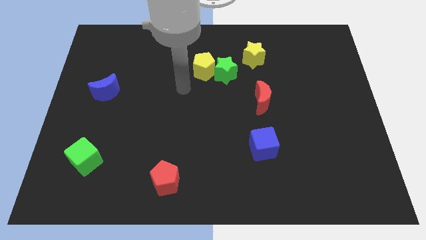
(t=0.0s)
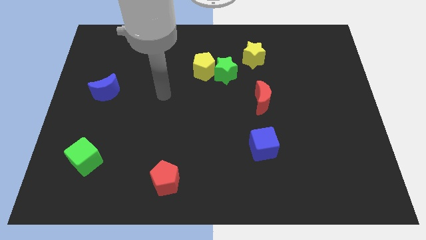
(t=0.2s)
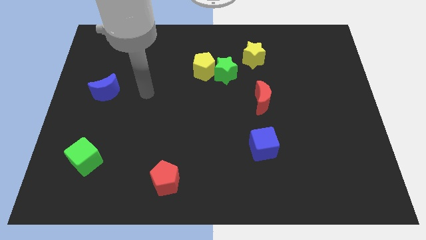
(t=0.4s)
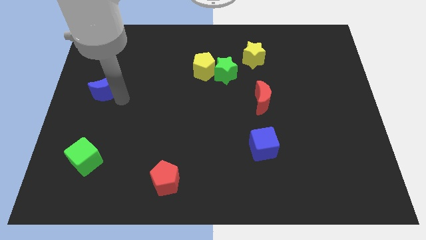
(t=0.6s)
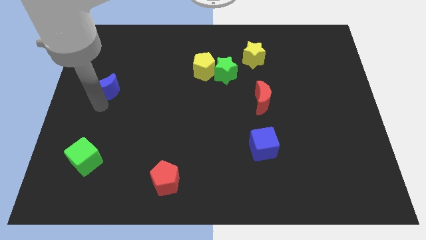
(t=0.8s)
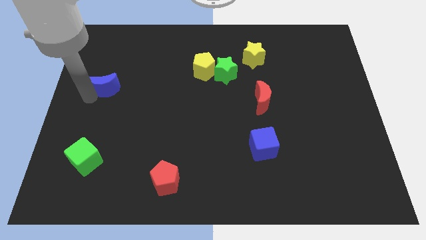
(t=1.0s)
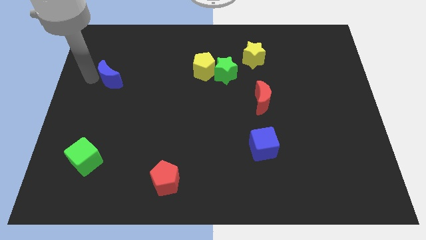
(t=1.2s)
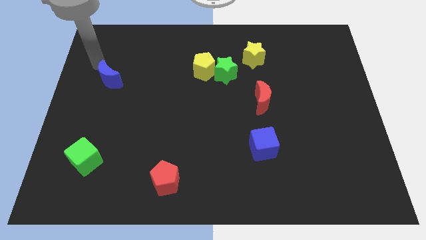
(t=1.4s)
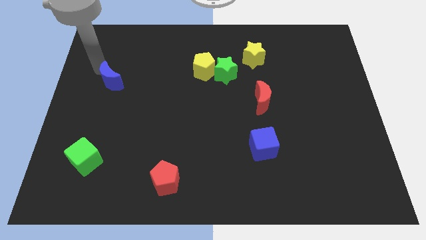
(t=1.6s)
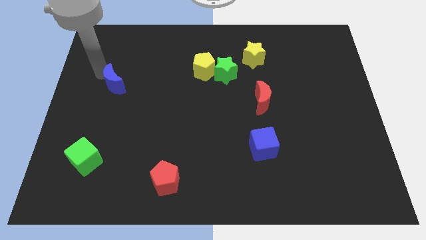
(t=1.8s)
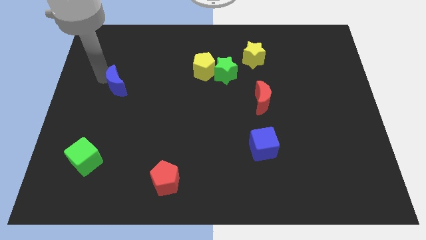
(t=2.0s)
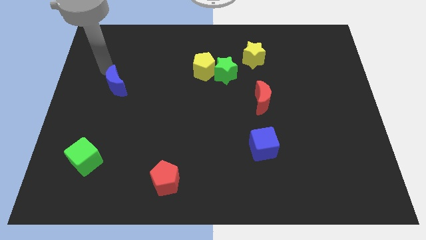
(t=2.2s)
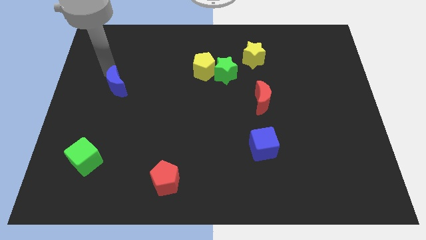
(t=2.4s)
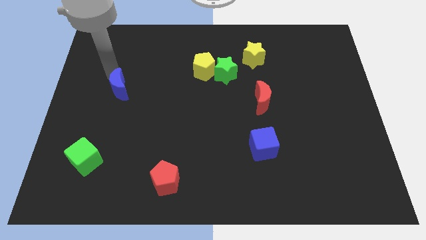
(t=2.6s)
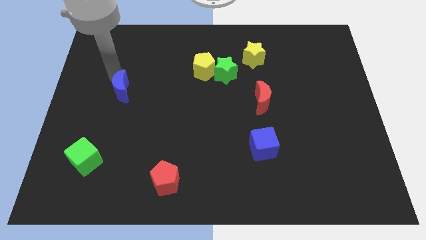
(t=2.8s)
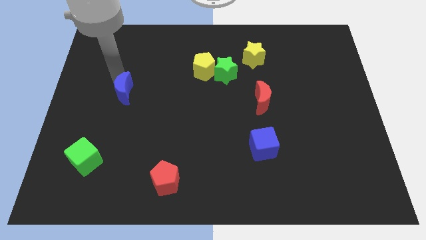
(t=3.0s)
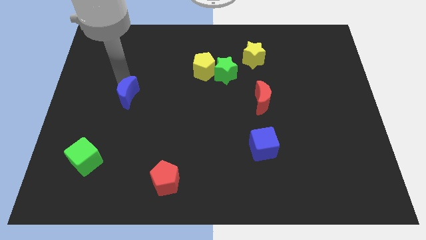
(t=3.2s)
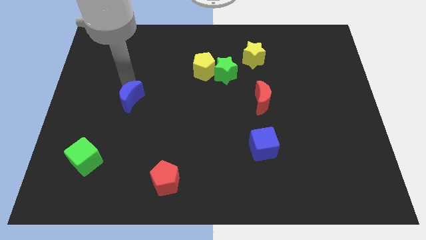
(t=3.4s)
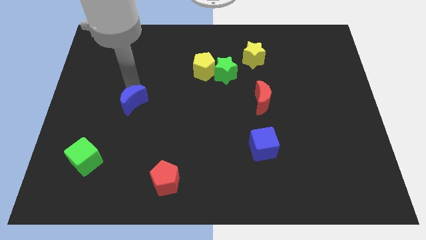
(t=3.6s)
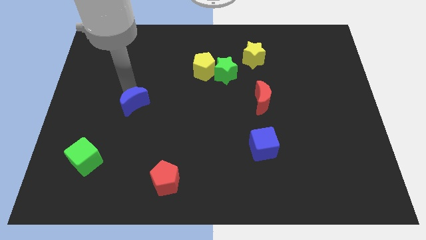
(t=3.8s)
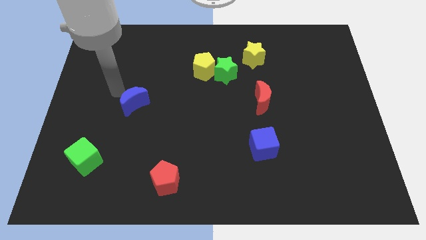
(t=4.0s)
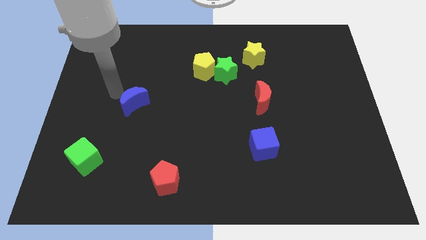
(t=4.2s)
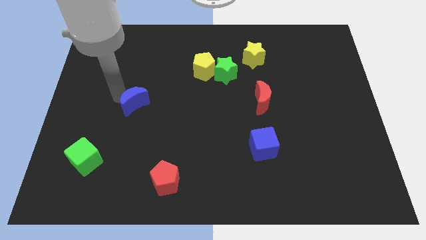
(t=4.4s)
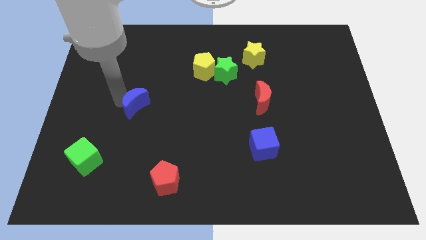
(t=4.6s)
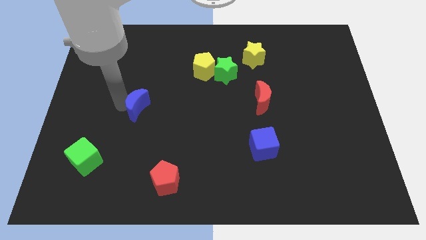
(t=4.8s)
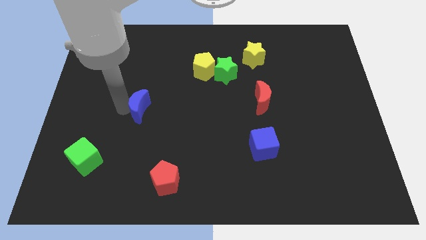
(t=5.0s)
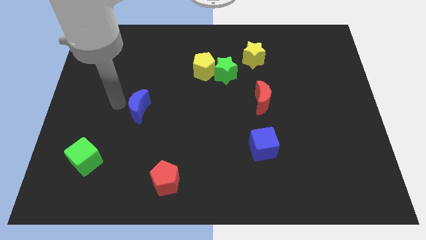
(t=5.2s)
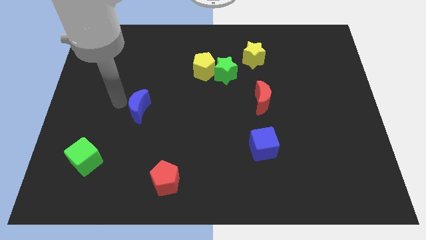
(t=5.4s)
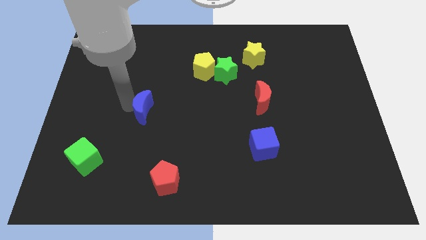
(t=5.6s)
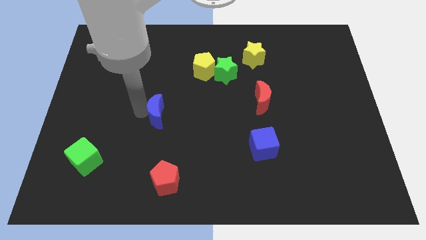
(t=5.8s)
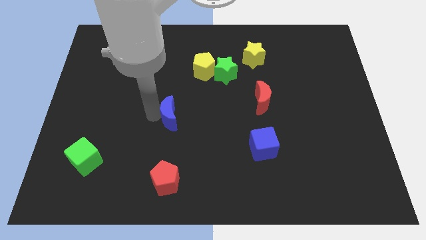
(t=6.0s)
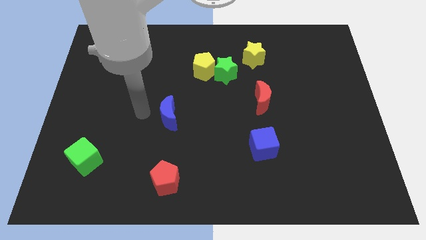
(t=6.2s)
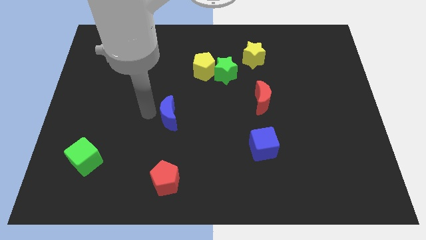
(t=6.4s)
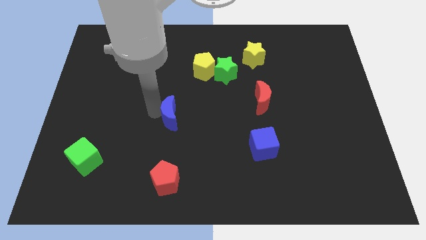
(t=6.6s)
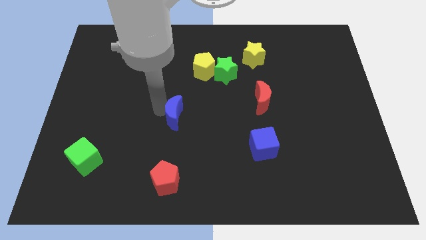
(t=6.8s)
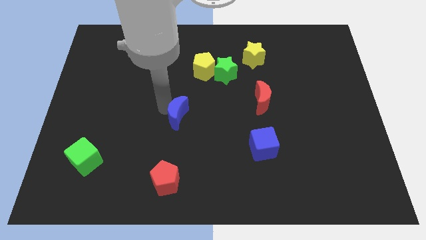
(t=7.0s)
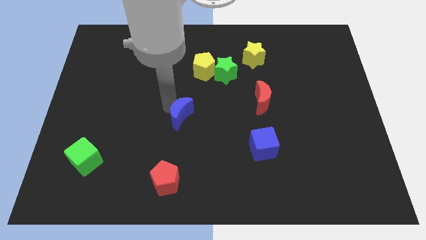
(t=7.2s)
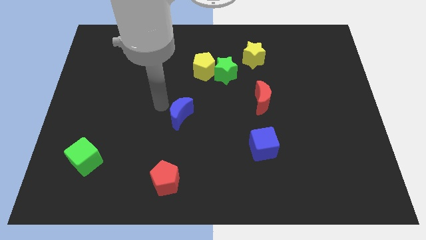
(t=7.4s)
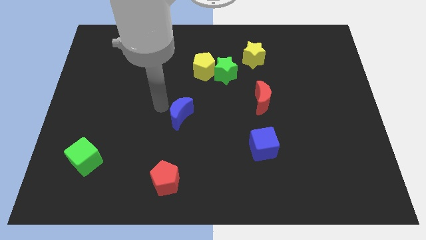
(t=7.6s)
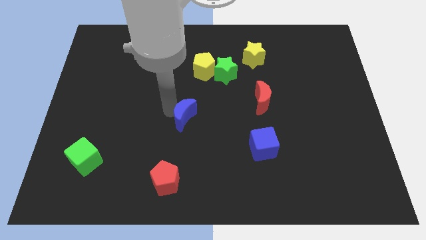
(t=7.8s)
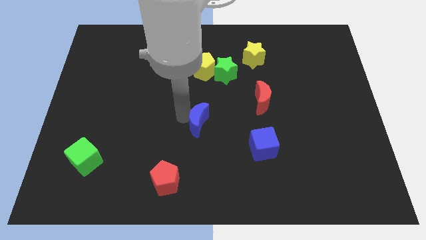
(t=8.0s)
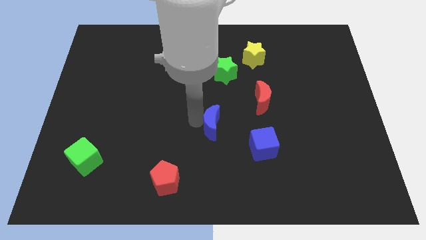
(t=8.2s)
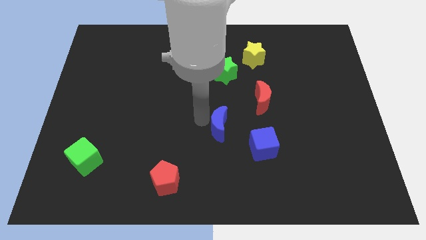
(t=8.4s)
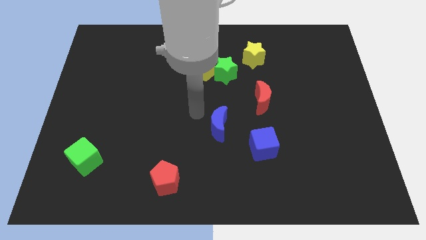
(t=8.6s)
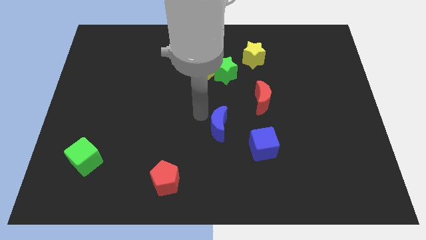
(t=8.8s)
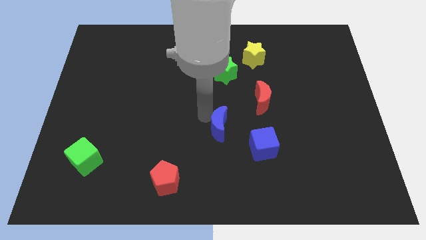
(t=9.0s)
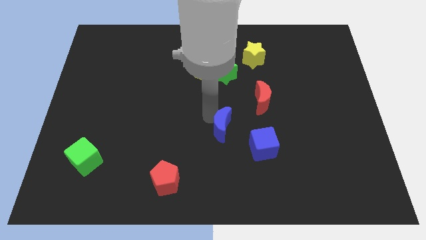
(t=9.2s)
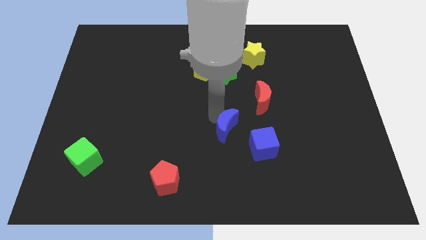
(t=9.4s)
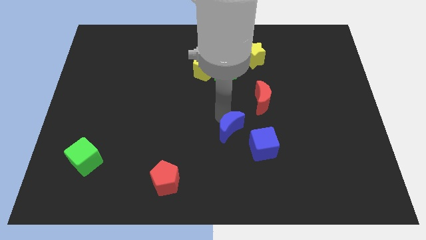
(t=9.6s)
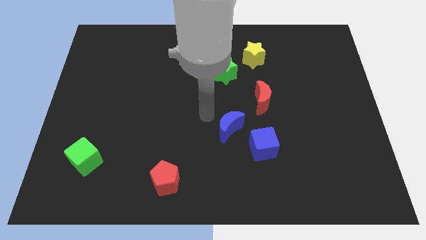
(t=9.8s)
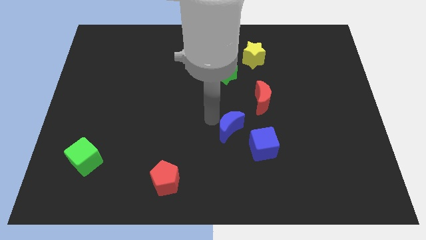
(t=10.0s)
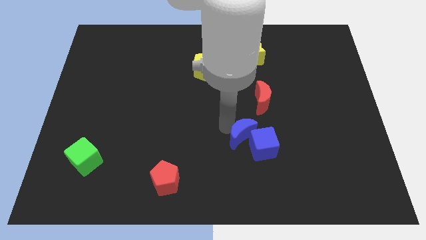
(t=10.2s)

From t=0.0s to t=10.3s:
move the blue moon to the blue cube

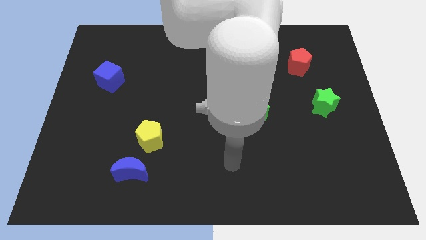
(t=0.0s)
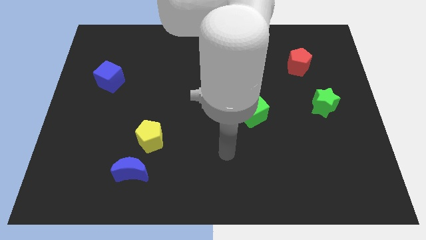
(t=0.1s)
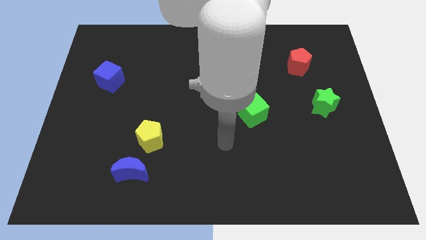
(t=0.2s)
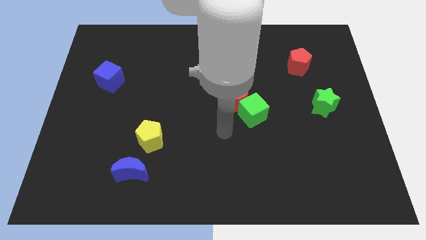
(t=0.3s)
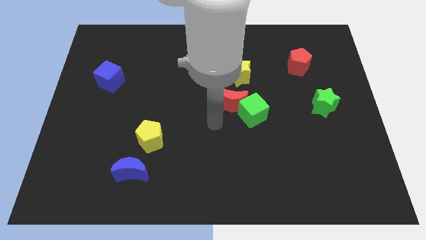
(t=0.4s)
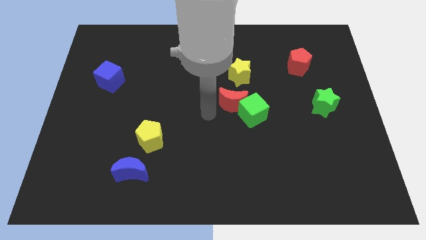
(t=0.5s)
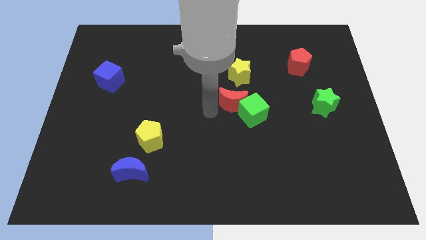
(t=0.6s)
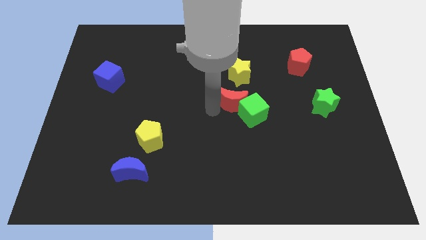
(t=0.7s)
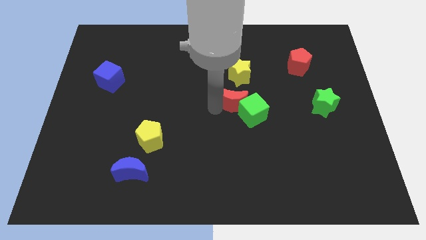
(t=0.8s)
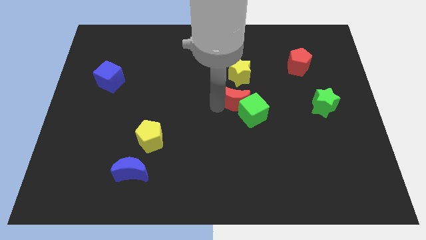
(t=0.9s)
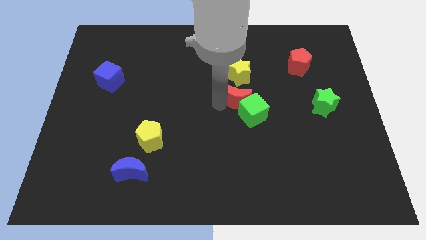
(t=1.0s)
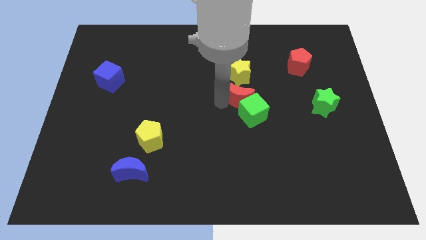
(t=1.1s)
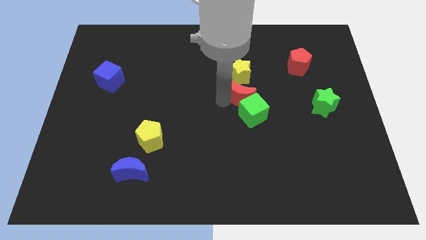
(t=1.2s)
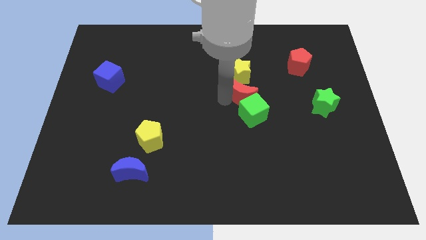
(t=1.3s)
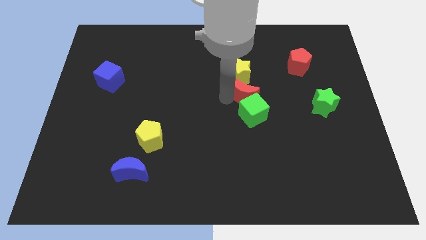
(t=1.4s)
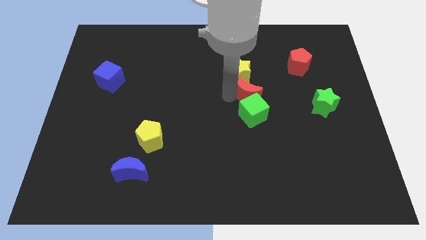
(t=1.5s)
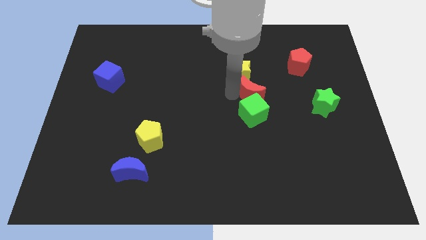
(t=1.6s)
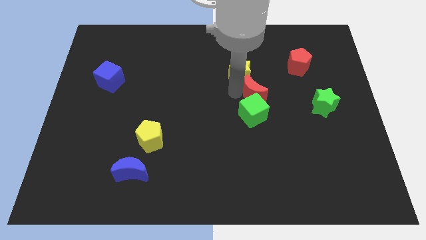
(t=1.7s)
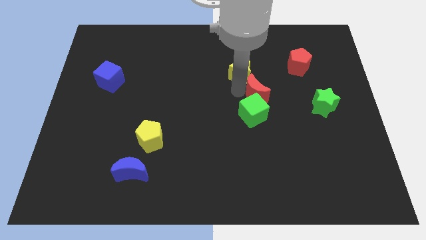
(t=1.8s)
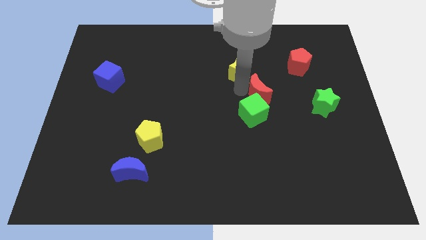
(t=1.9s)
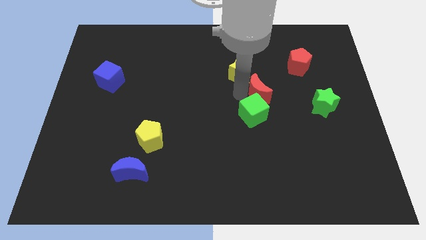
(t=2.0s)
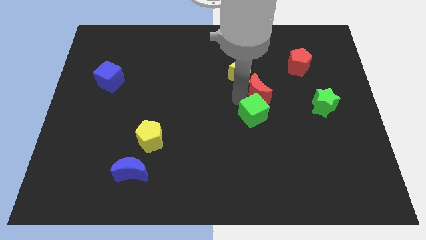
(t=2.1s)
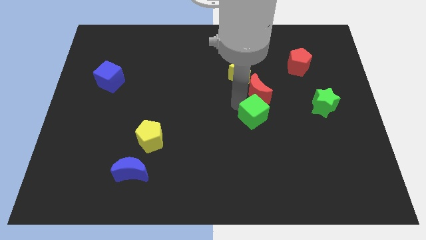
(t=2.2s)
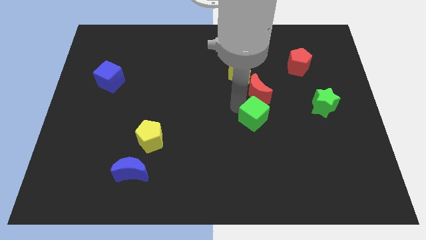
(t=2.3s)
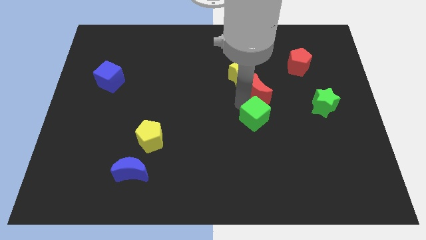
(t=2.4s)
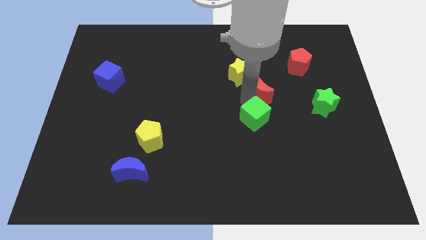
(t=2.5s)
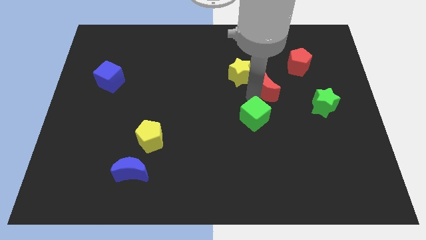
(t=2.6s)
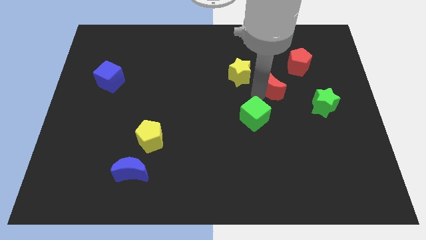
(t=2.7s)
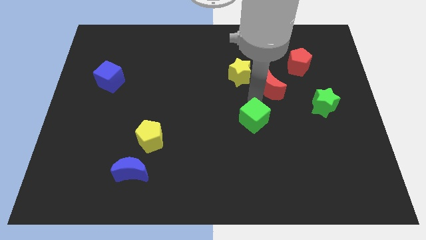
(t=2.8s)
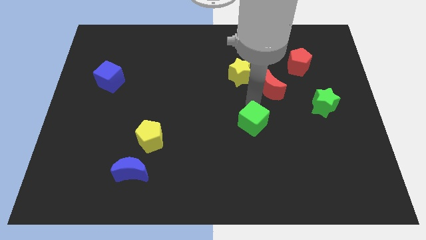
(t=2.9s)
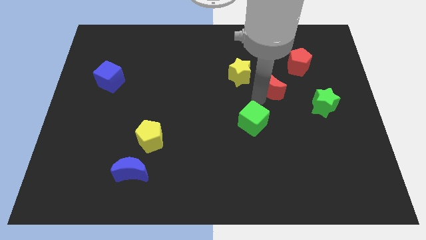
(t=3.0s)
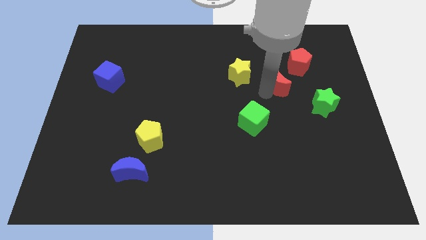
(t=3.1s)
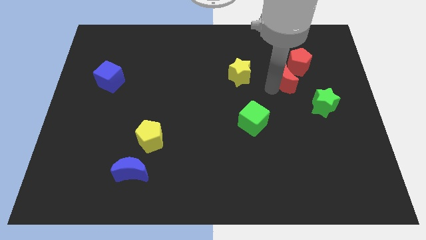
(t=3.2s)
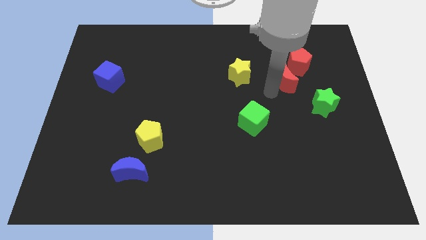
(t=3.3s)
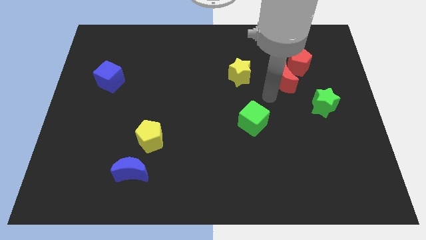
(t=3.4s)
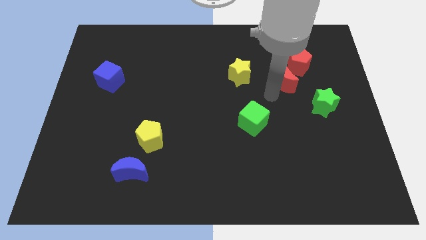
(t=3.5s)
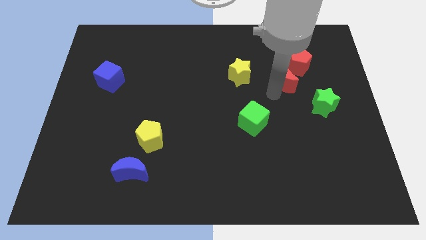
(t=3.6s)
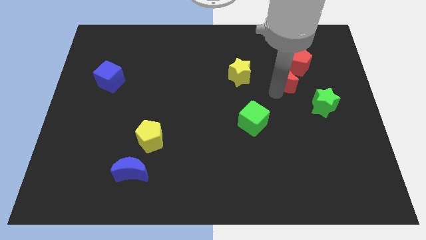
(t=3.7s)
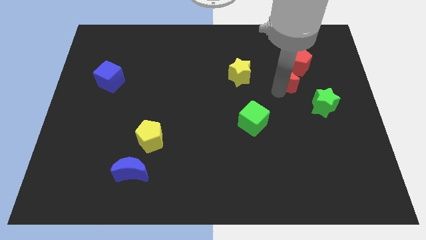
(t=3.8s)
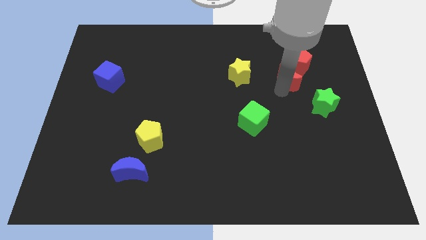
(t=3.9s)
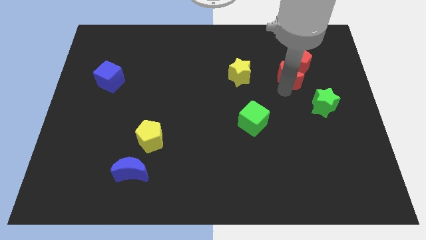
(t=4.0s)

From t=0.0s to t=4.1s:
slide the red moon to the red pentagon
